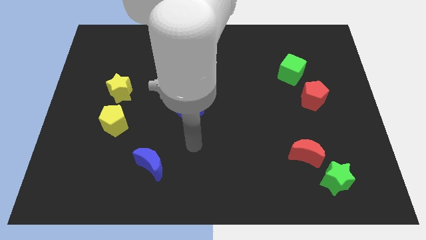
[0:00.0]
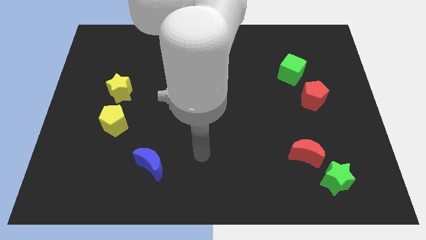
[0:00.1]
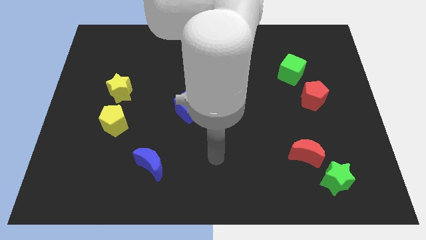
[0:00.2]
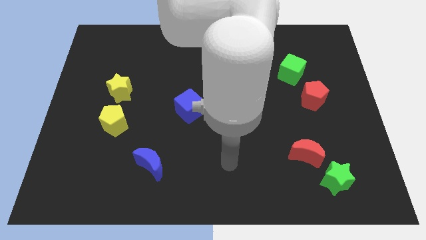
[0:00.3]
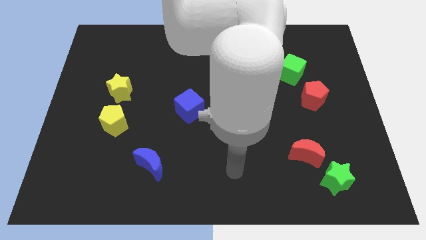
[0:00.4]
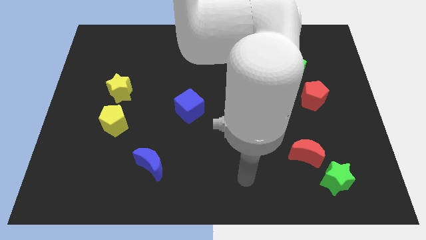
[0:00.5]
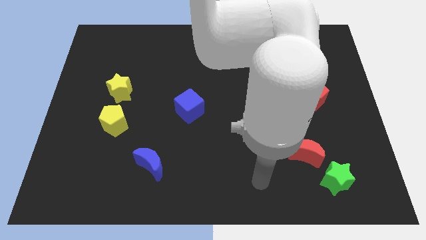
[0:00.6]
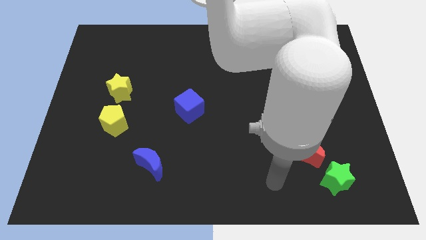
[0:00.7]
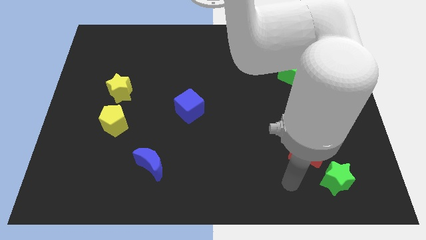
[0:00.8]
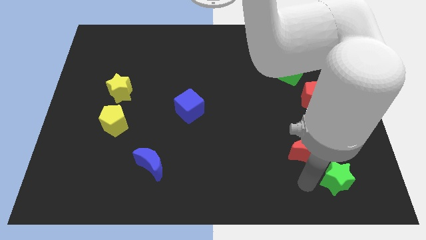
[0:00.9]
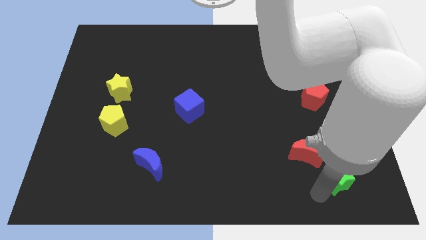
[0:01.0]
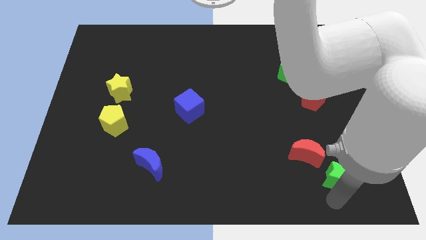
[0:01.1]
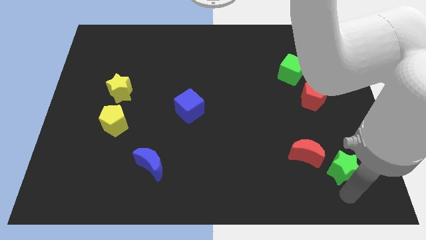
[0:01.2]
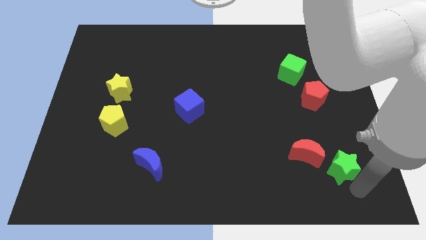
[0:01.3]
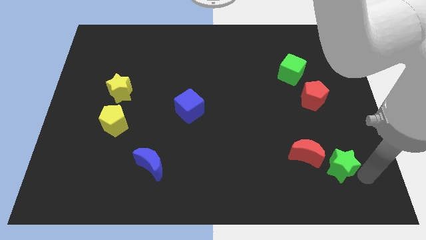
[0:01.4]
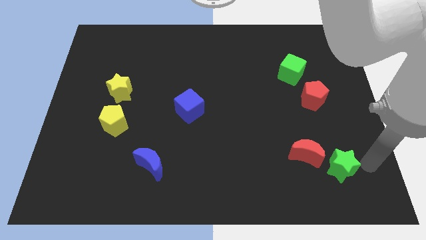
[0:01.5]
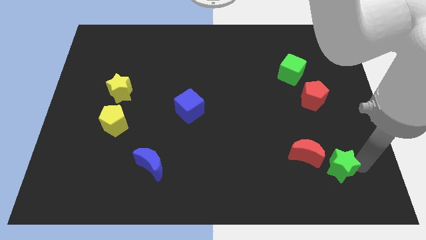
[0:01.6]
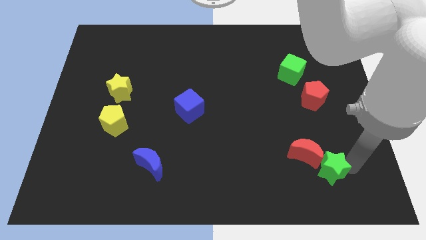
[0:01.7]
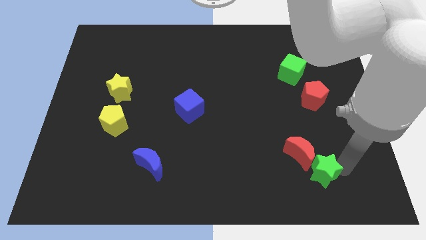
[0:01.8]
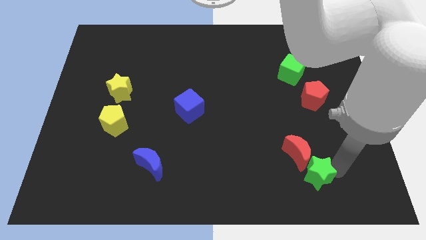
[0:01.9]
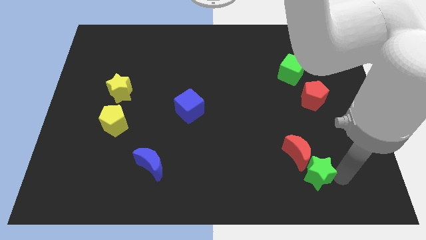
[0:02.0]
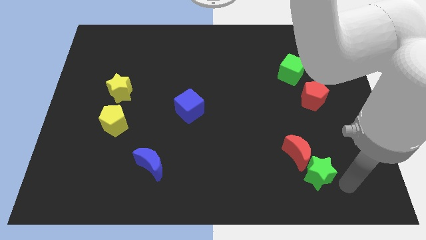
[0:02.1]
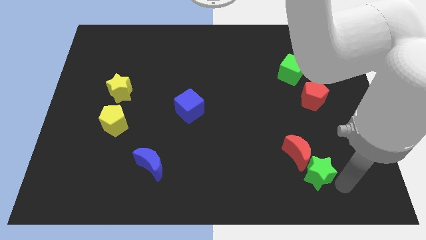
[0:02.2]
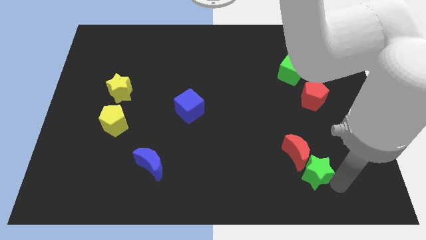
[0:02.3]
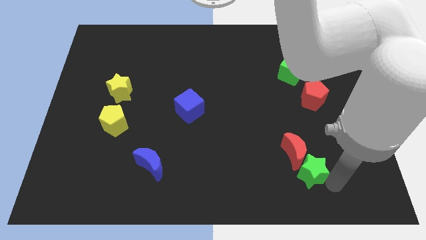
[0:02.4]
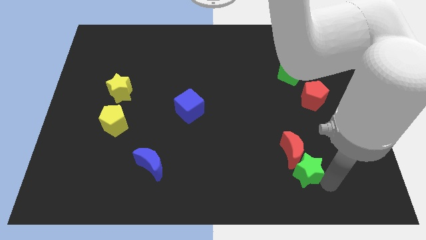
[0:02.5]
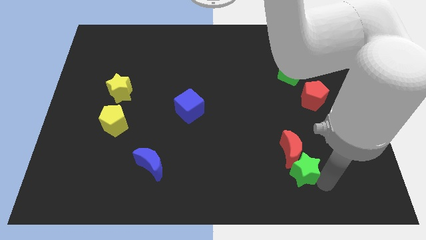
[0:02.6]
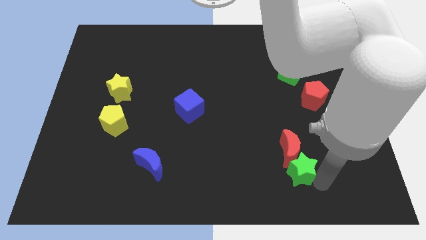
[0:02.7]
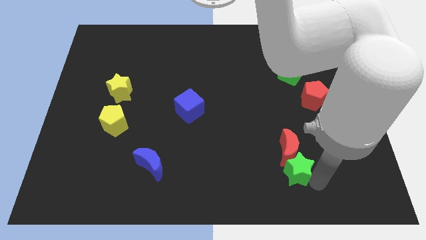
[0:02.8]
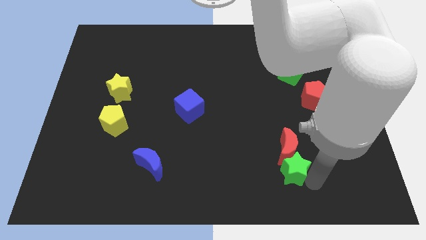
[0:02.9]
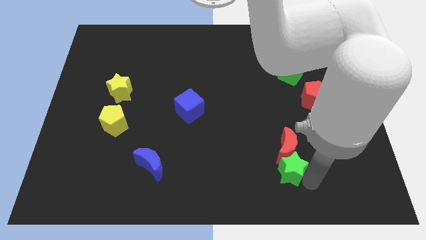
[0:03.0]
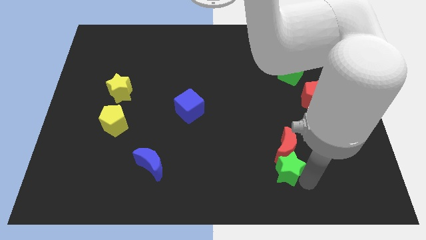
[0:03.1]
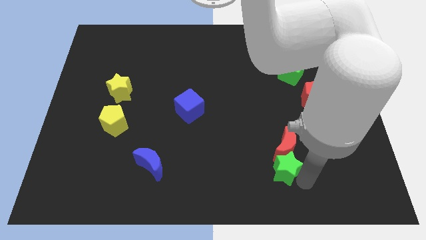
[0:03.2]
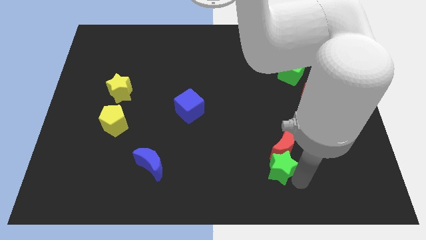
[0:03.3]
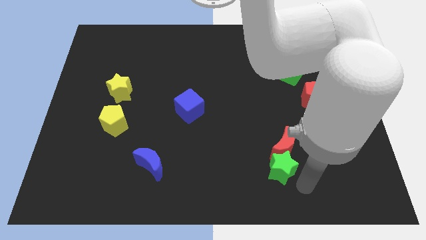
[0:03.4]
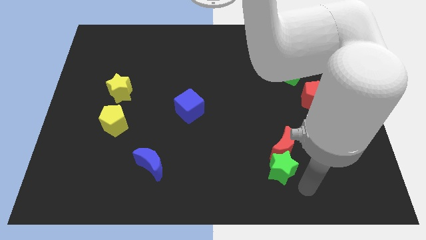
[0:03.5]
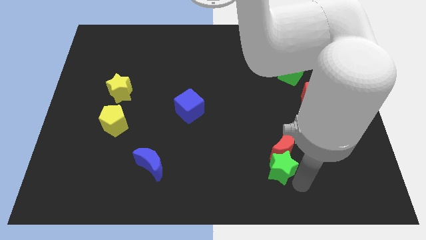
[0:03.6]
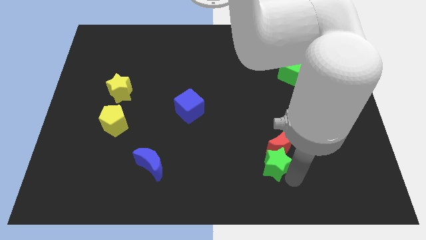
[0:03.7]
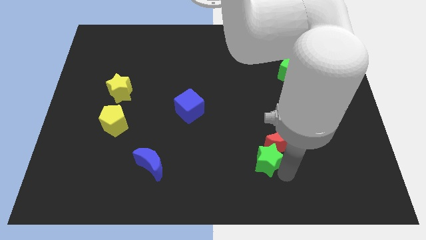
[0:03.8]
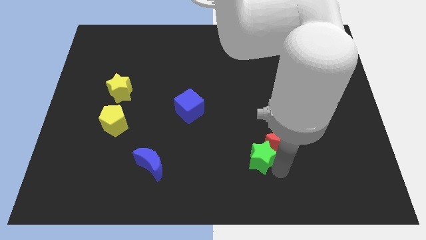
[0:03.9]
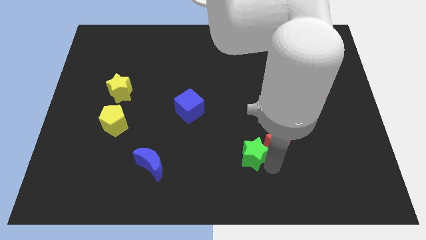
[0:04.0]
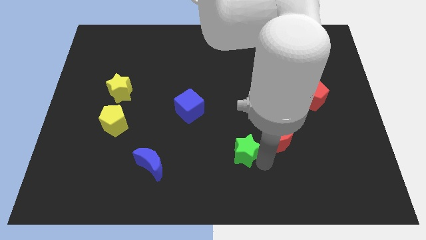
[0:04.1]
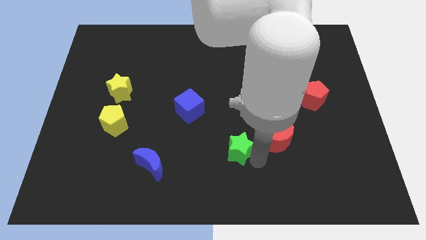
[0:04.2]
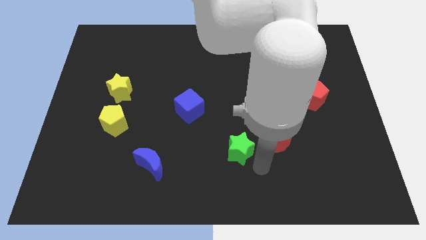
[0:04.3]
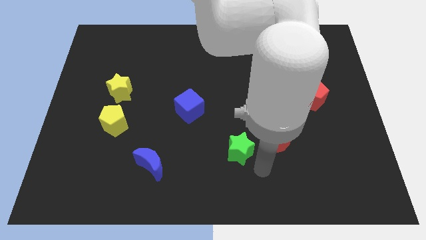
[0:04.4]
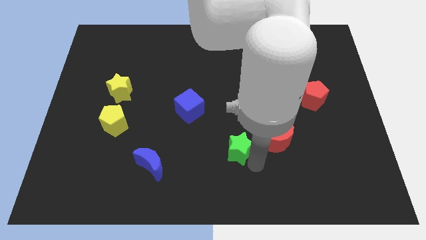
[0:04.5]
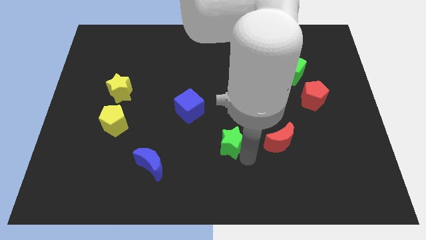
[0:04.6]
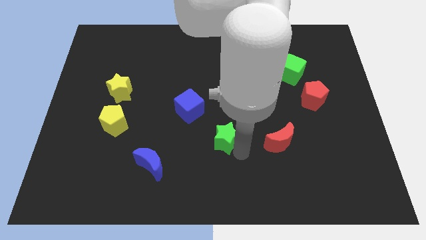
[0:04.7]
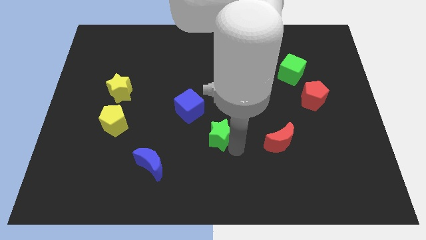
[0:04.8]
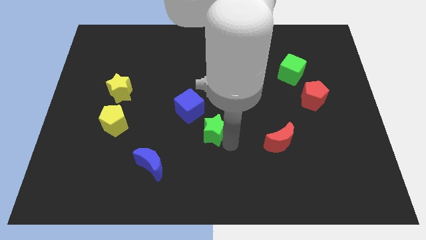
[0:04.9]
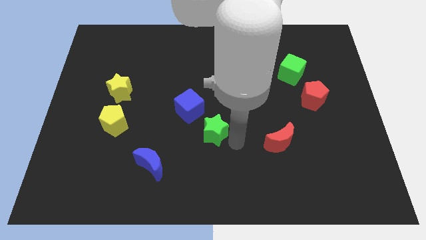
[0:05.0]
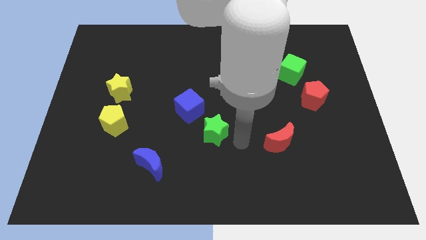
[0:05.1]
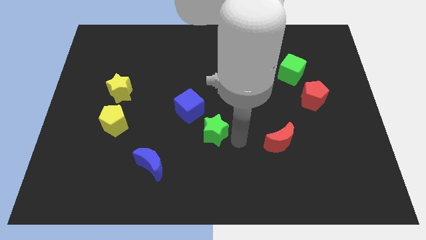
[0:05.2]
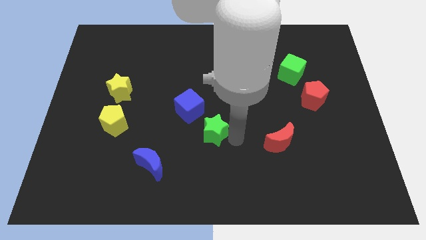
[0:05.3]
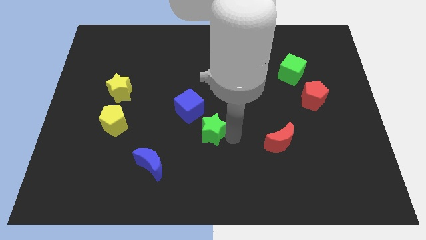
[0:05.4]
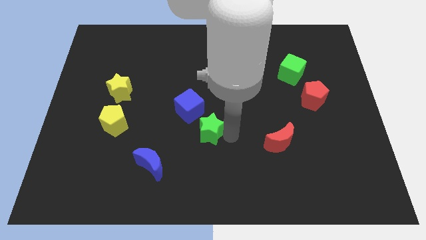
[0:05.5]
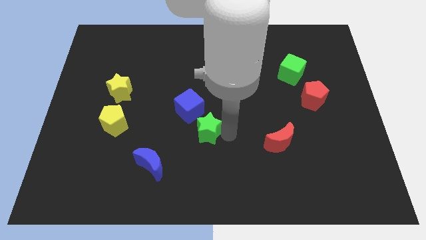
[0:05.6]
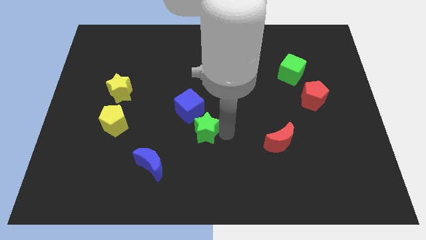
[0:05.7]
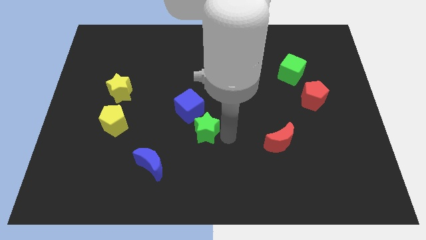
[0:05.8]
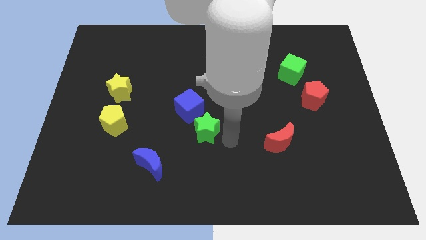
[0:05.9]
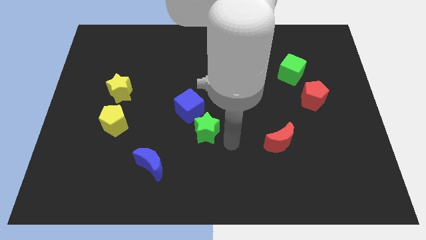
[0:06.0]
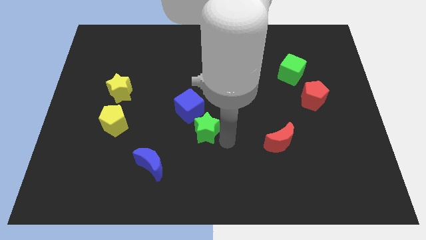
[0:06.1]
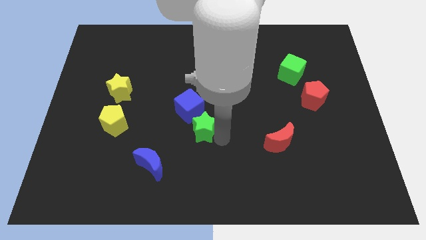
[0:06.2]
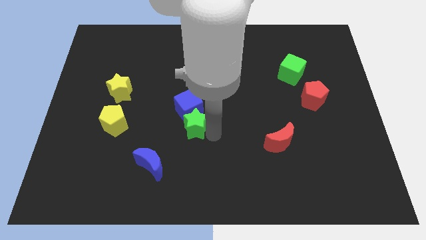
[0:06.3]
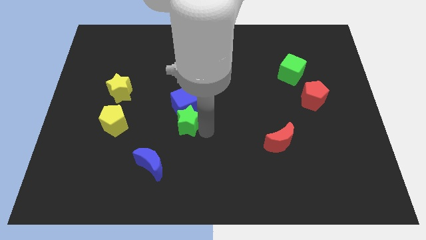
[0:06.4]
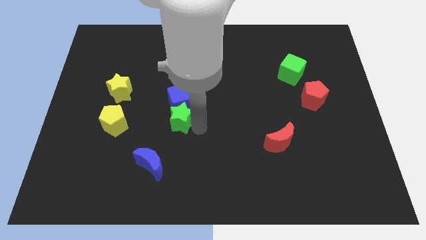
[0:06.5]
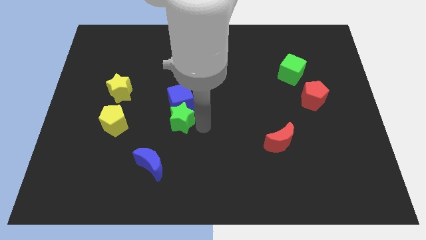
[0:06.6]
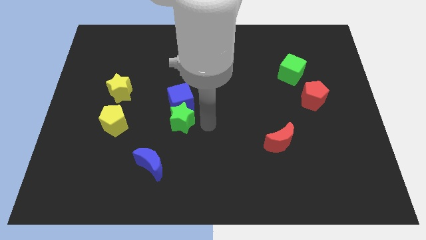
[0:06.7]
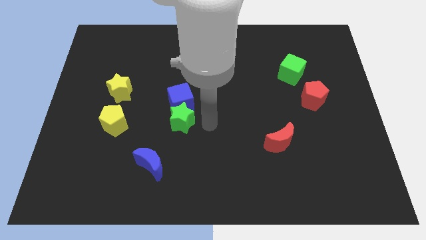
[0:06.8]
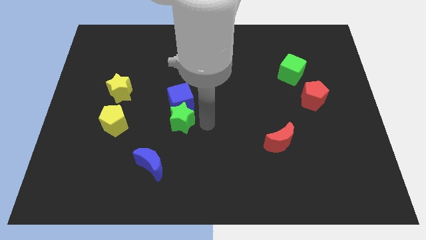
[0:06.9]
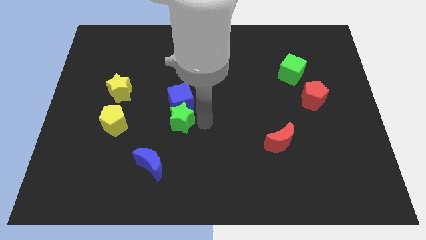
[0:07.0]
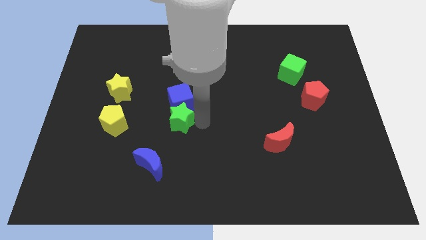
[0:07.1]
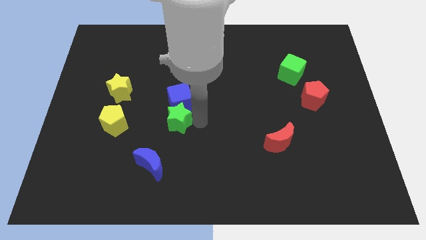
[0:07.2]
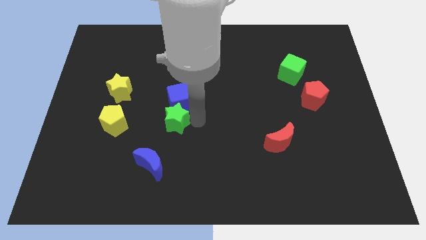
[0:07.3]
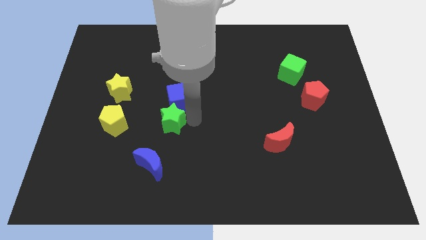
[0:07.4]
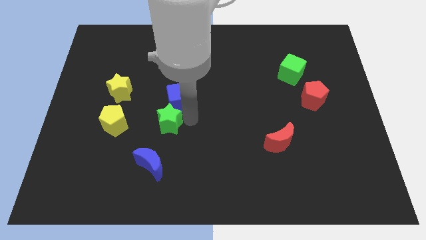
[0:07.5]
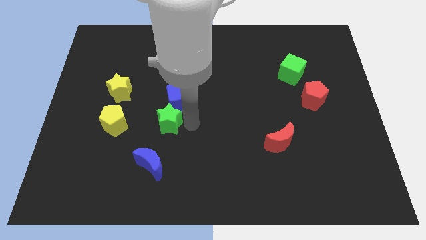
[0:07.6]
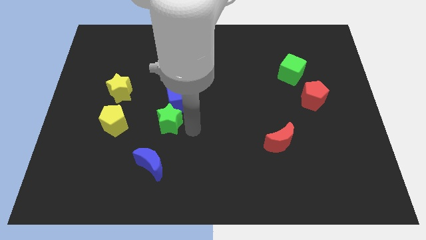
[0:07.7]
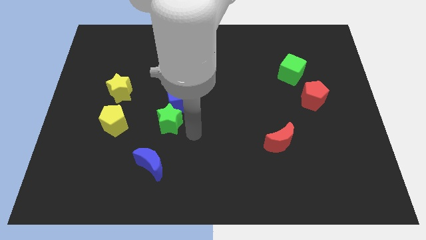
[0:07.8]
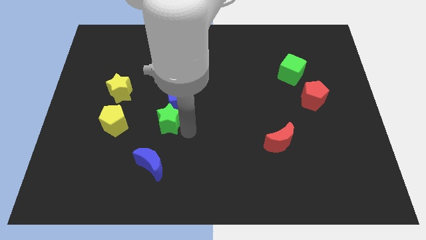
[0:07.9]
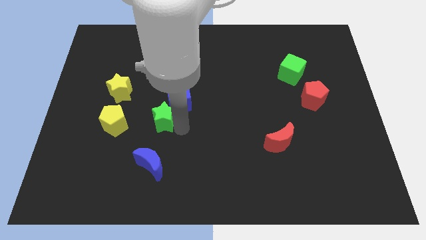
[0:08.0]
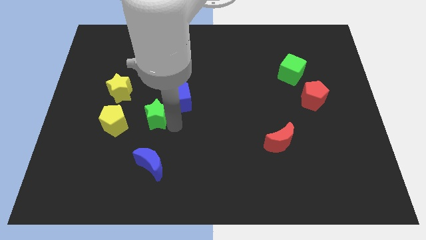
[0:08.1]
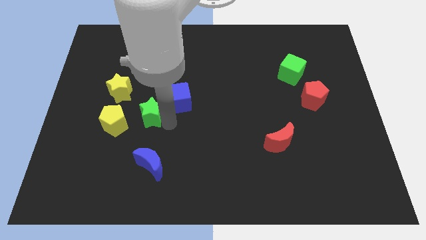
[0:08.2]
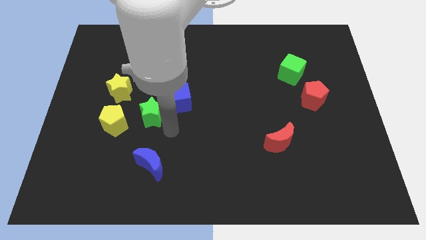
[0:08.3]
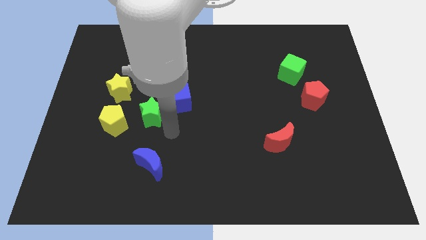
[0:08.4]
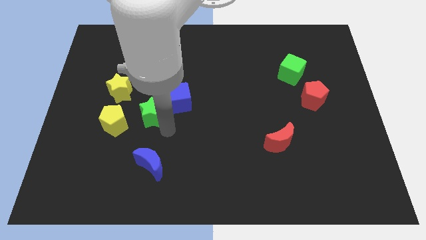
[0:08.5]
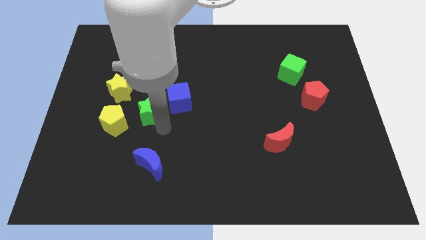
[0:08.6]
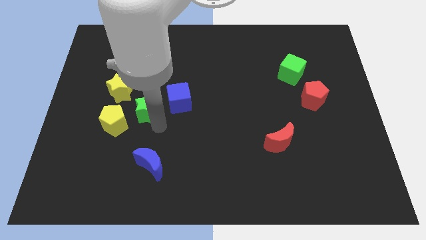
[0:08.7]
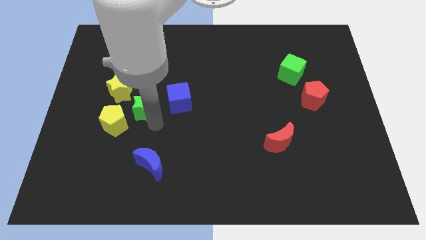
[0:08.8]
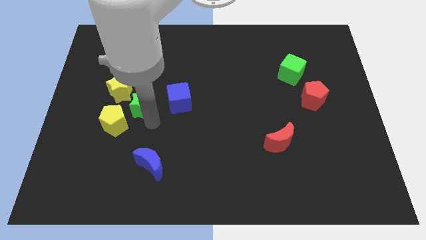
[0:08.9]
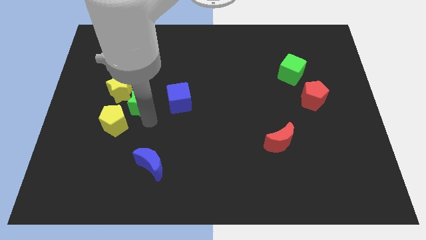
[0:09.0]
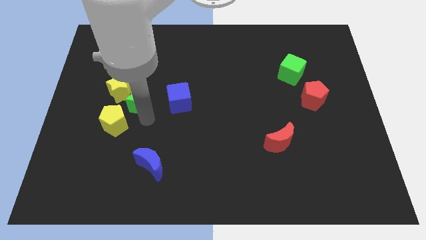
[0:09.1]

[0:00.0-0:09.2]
slide the green star towards the yellow star
